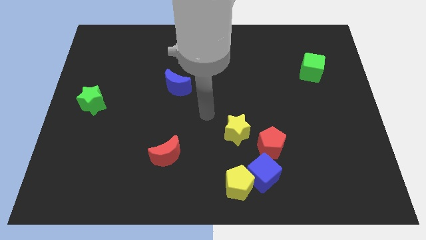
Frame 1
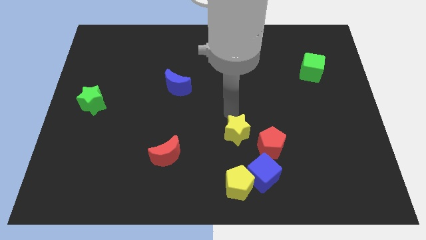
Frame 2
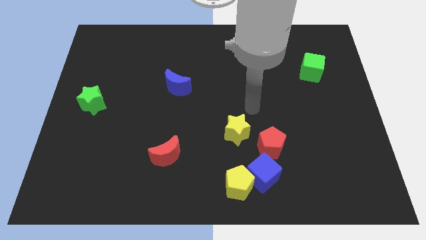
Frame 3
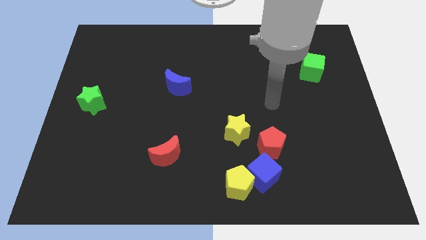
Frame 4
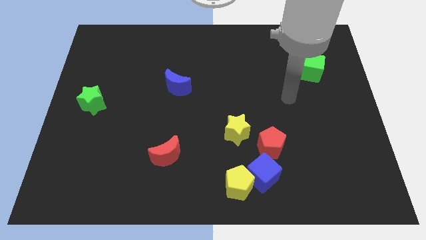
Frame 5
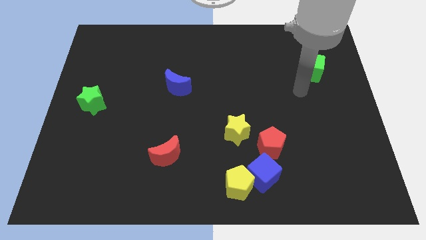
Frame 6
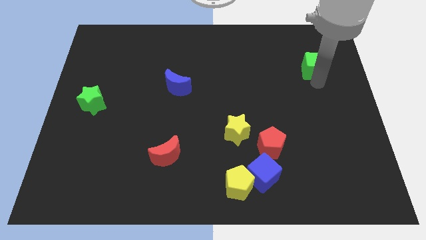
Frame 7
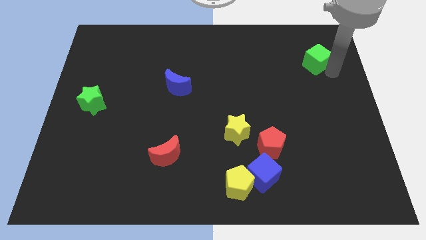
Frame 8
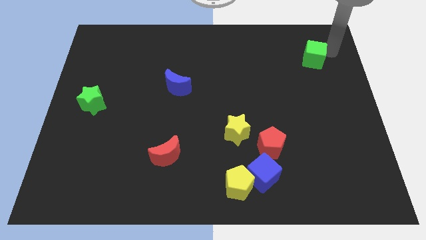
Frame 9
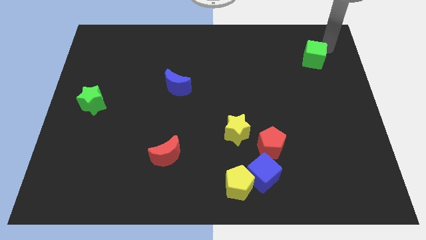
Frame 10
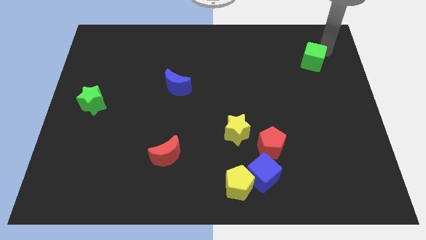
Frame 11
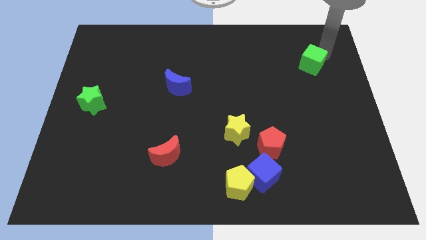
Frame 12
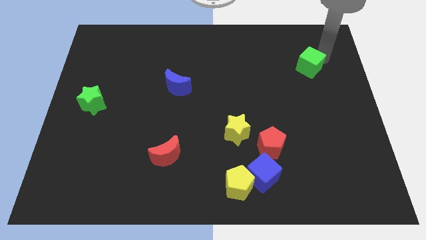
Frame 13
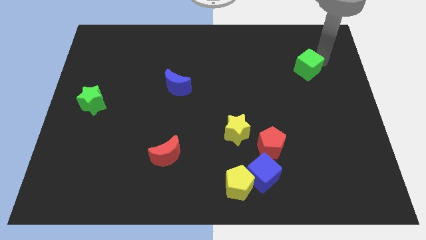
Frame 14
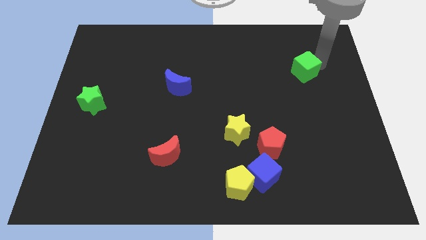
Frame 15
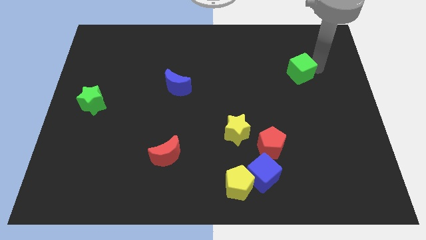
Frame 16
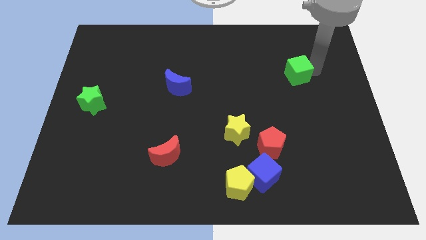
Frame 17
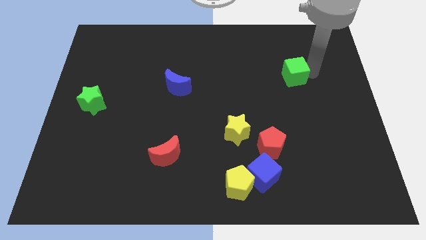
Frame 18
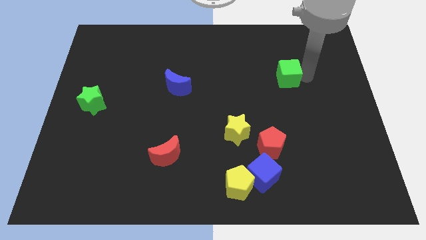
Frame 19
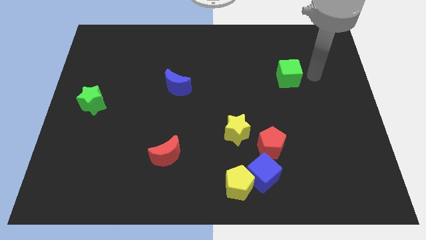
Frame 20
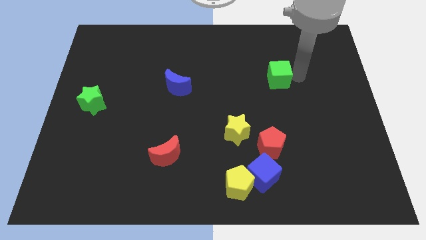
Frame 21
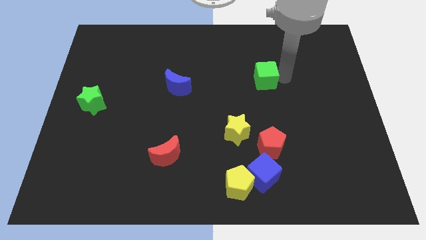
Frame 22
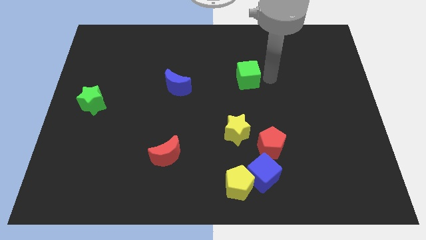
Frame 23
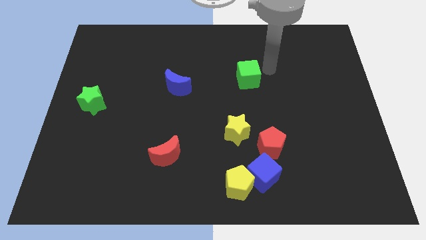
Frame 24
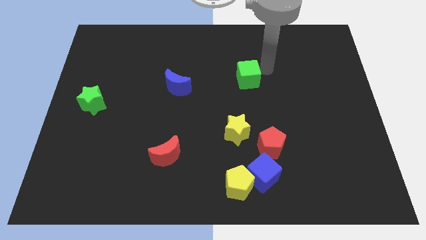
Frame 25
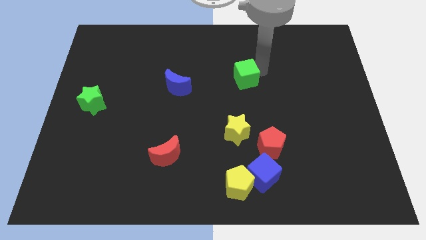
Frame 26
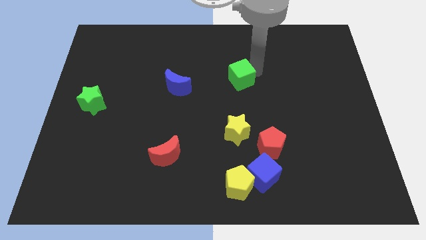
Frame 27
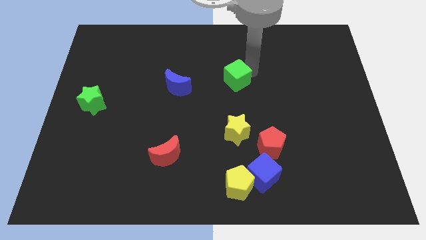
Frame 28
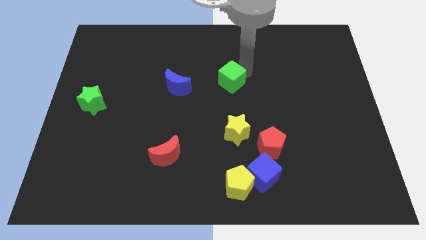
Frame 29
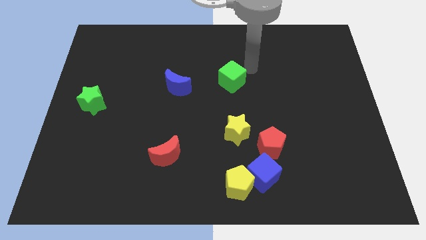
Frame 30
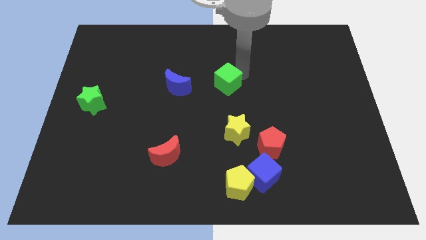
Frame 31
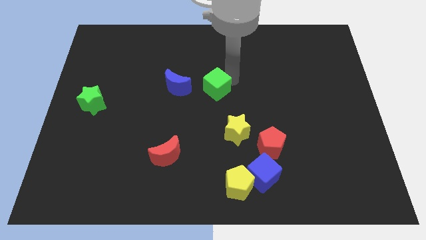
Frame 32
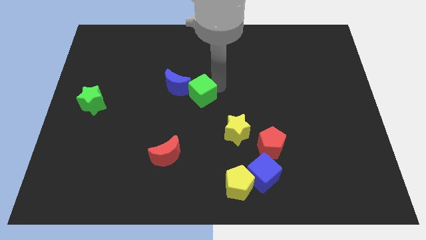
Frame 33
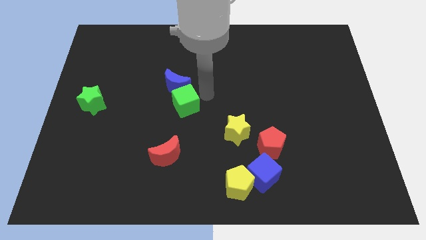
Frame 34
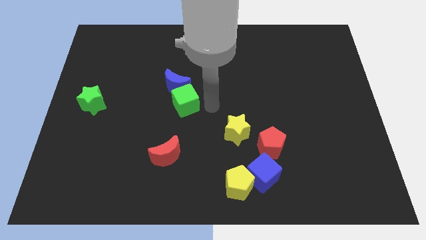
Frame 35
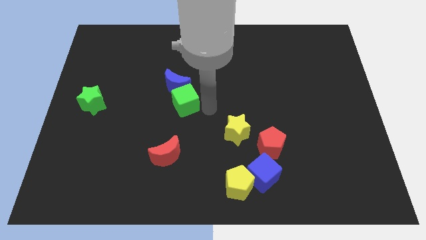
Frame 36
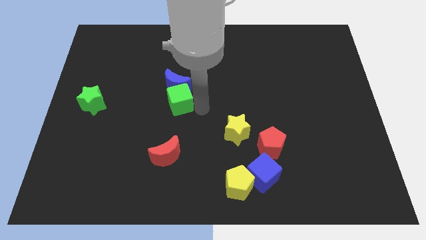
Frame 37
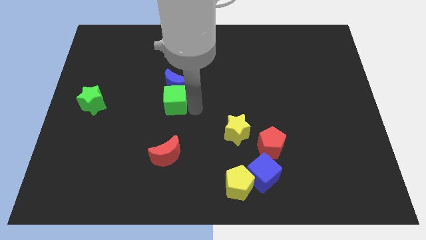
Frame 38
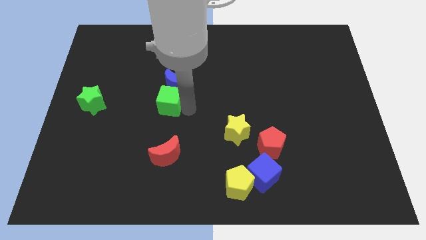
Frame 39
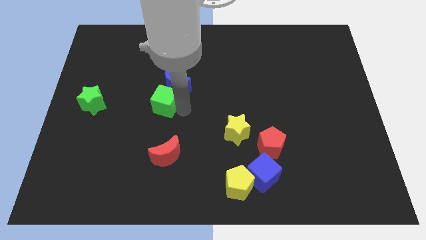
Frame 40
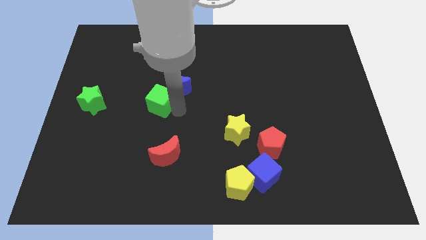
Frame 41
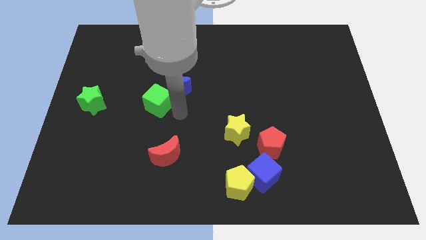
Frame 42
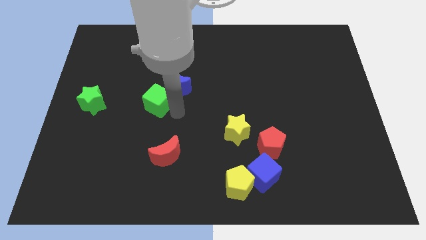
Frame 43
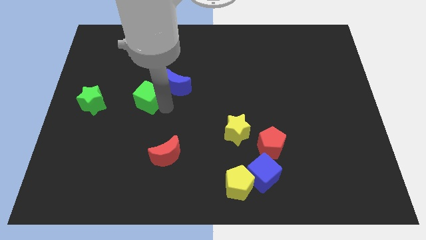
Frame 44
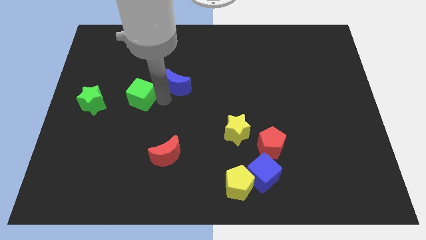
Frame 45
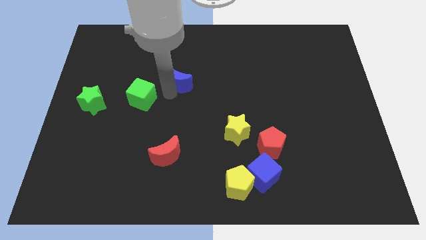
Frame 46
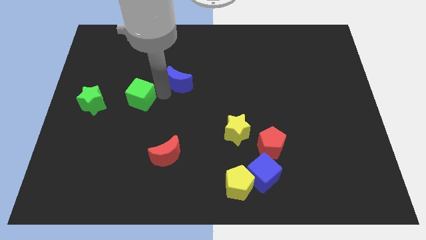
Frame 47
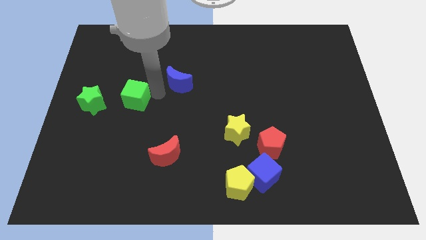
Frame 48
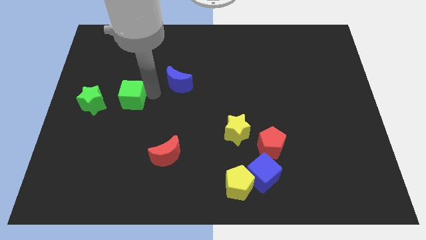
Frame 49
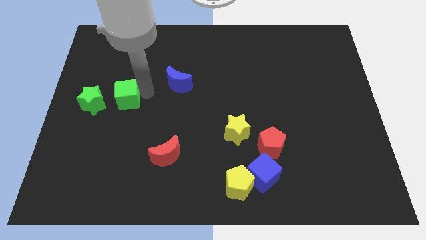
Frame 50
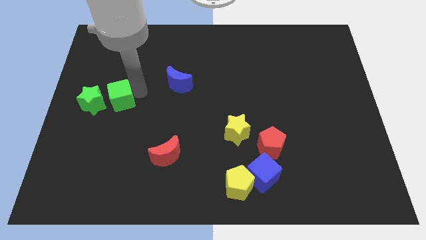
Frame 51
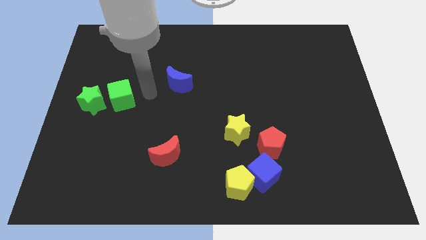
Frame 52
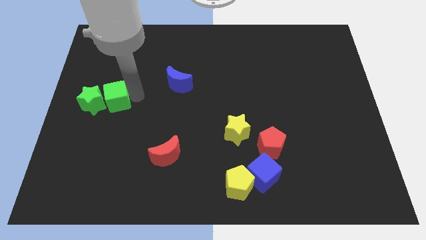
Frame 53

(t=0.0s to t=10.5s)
move the green cube towards the green star

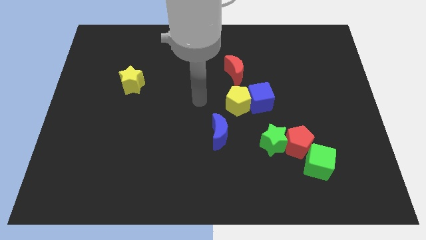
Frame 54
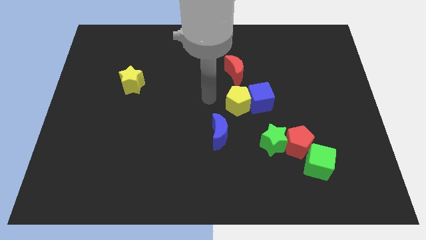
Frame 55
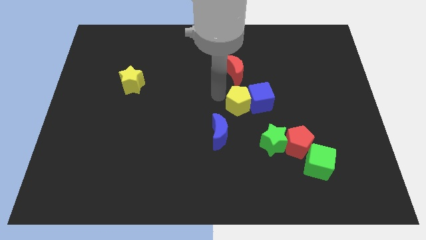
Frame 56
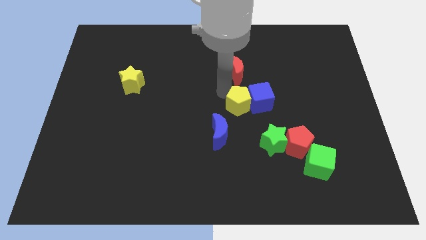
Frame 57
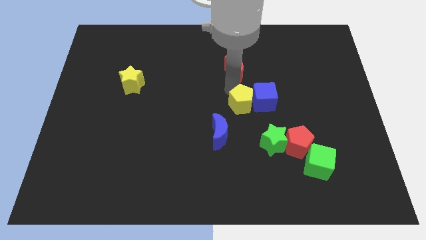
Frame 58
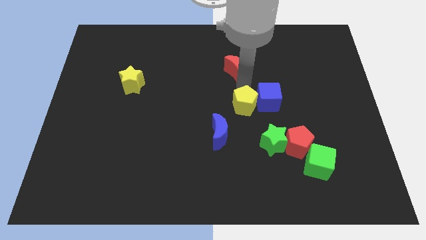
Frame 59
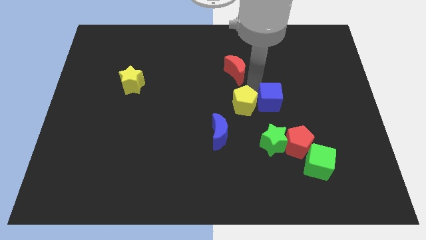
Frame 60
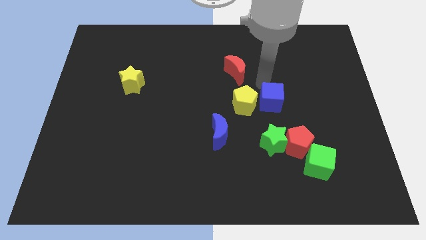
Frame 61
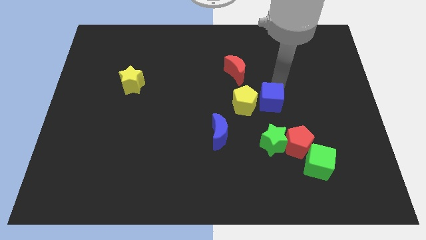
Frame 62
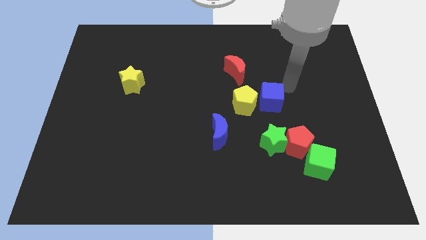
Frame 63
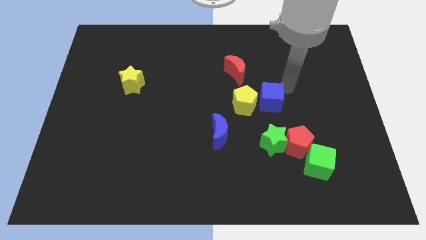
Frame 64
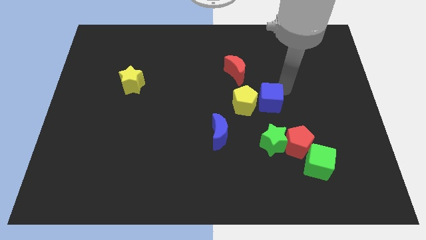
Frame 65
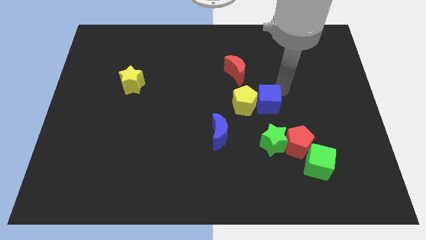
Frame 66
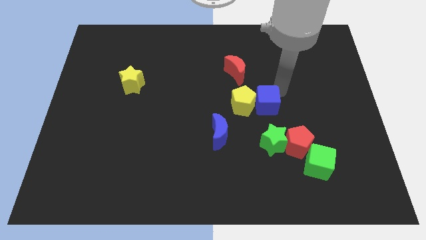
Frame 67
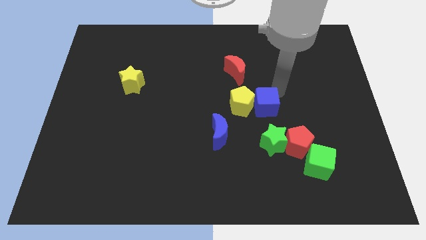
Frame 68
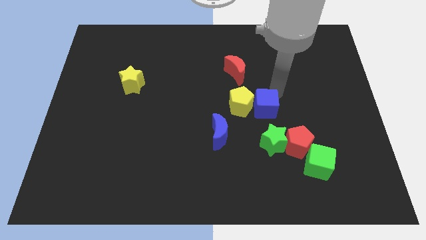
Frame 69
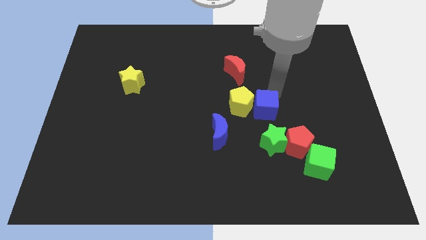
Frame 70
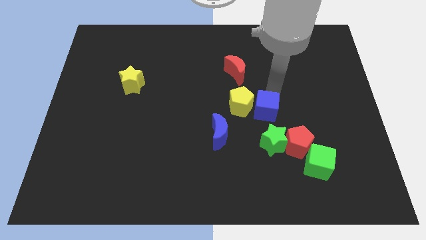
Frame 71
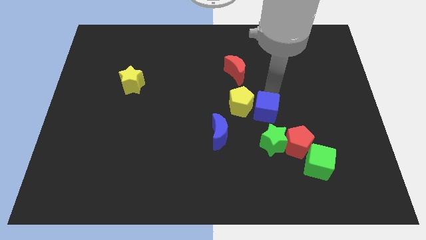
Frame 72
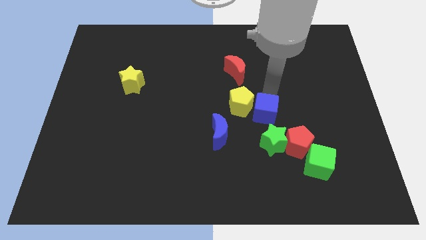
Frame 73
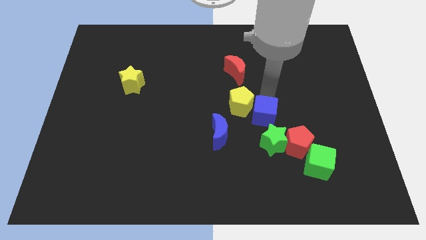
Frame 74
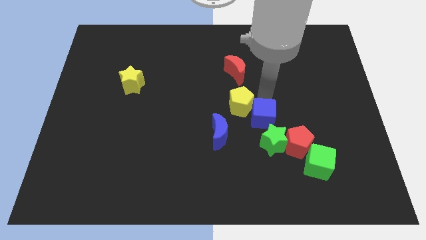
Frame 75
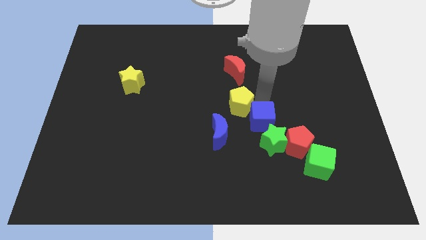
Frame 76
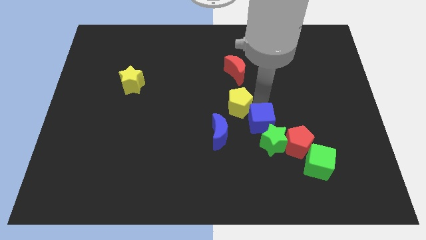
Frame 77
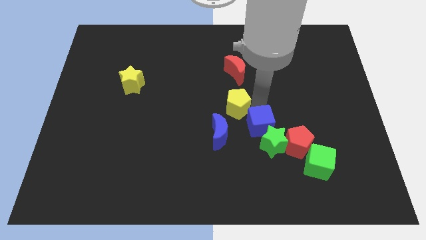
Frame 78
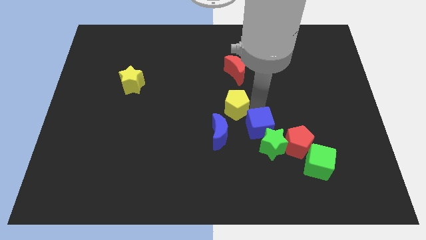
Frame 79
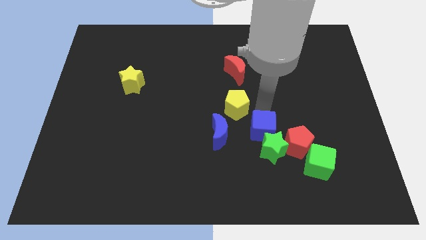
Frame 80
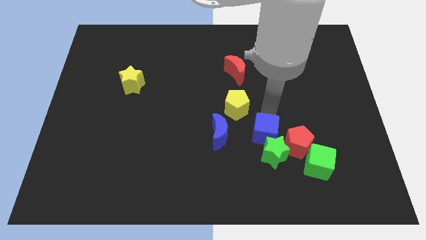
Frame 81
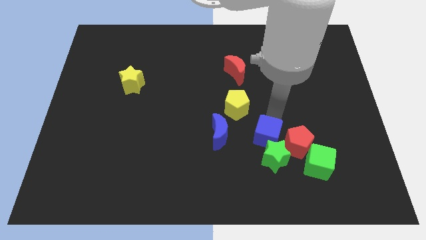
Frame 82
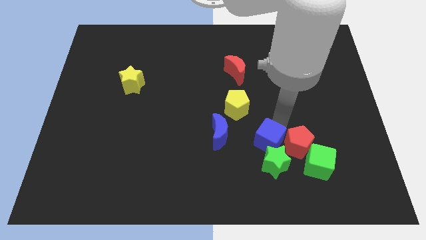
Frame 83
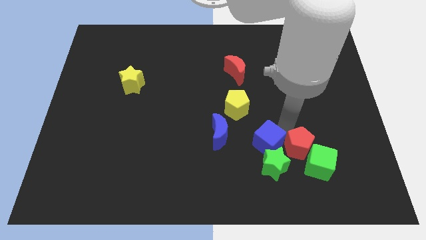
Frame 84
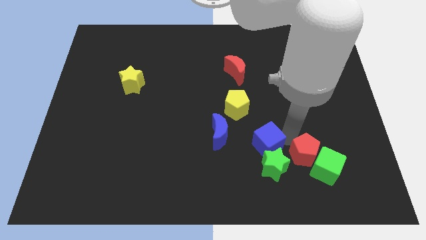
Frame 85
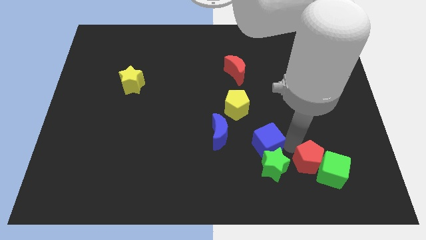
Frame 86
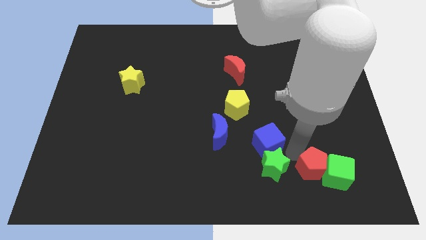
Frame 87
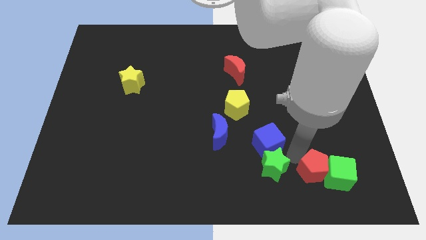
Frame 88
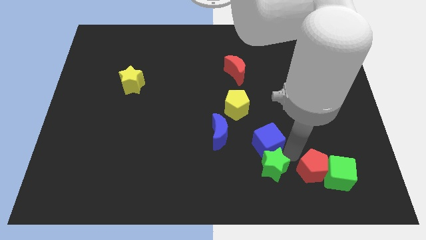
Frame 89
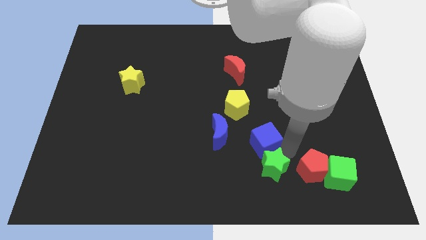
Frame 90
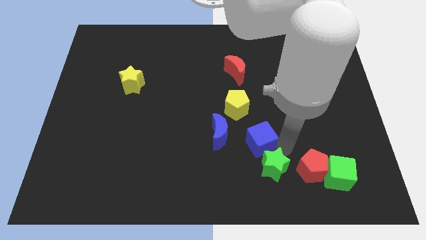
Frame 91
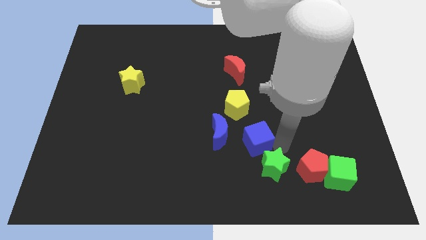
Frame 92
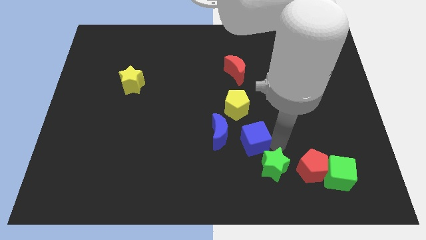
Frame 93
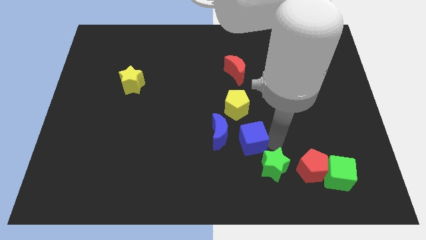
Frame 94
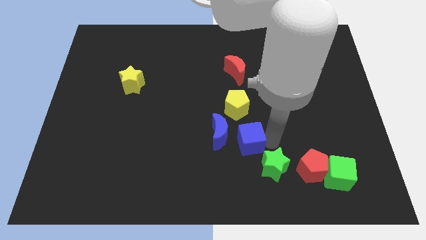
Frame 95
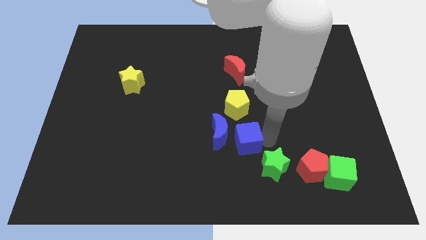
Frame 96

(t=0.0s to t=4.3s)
put the blue cube towards the blue moon
